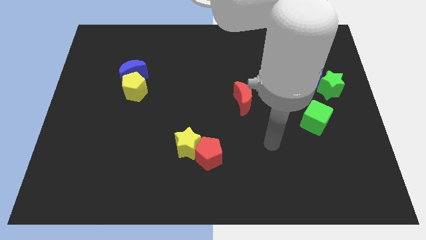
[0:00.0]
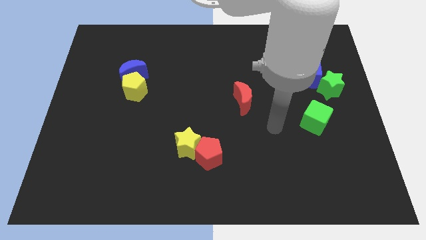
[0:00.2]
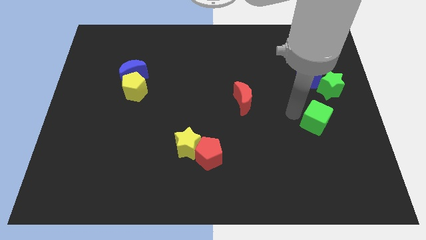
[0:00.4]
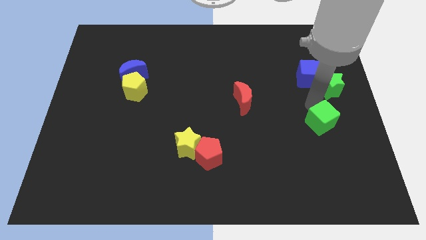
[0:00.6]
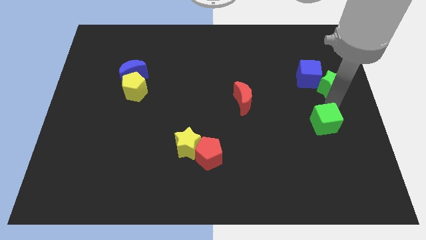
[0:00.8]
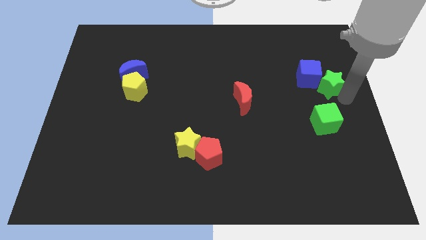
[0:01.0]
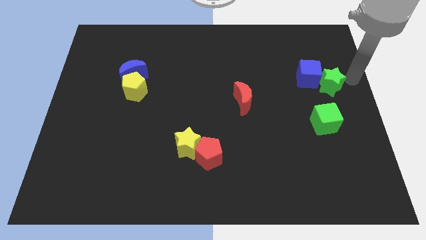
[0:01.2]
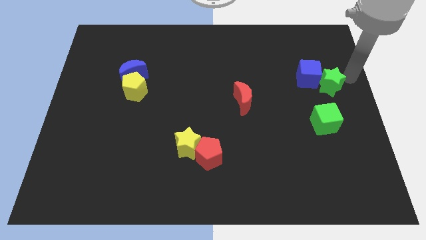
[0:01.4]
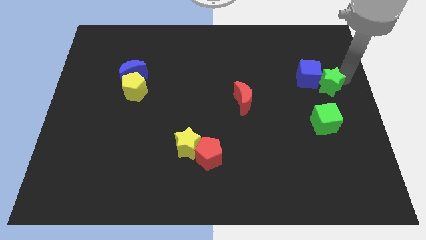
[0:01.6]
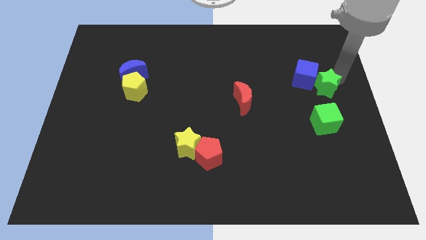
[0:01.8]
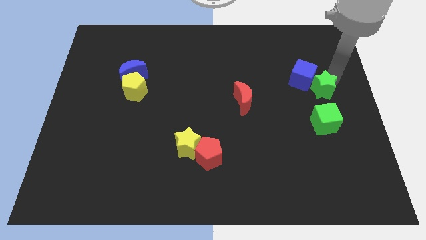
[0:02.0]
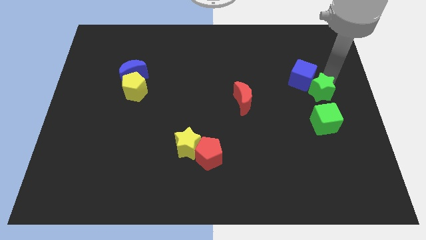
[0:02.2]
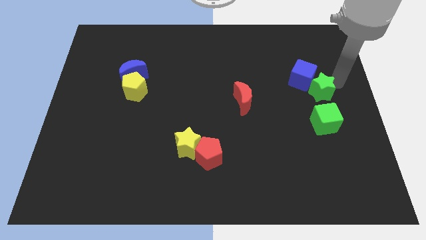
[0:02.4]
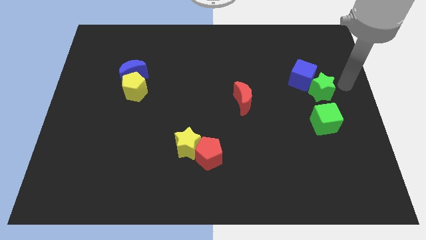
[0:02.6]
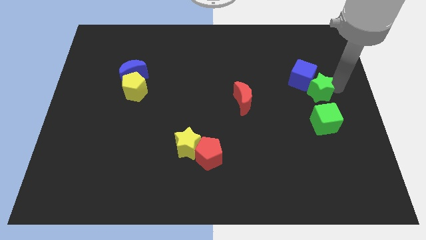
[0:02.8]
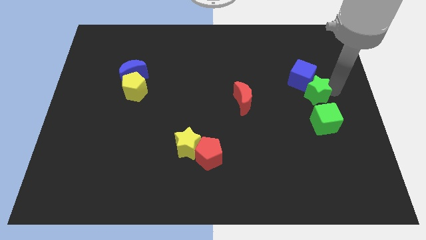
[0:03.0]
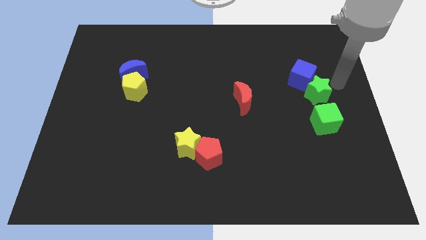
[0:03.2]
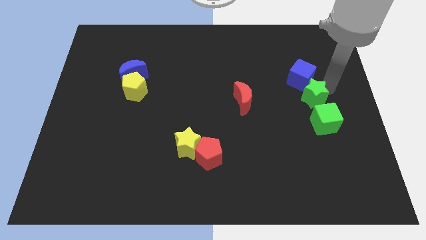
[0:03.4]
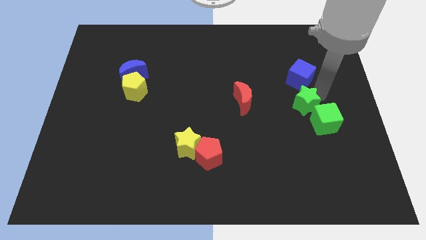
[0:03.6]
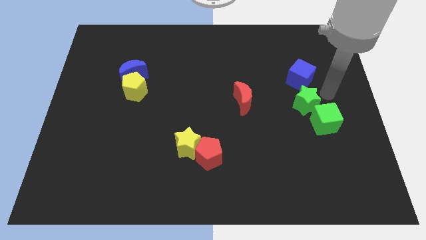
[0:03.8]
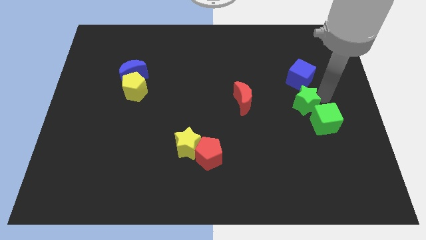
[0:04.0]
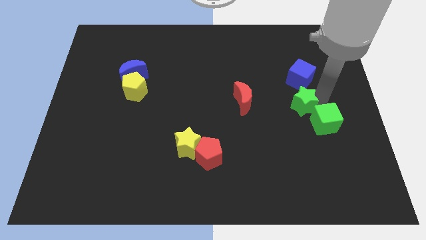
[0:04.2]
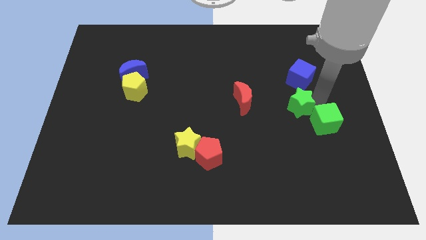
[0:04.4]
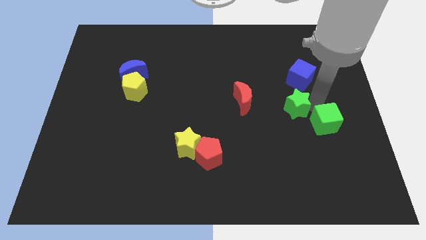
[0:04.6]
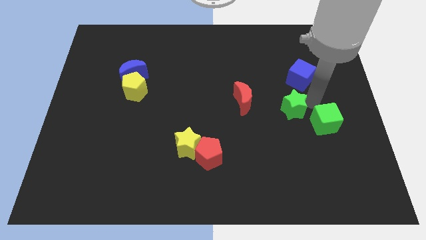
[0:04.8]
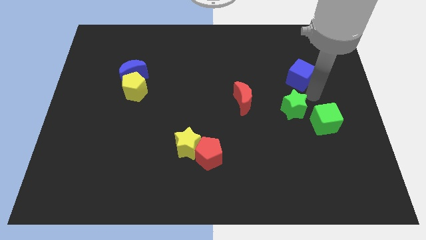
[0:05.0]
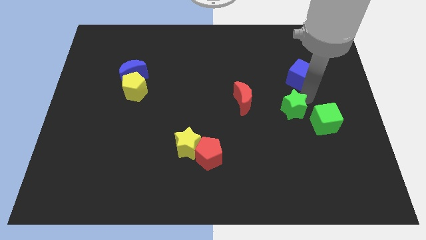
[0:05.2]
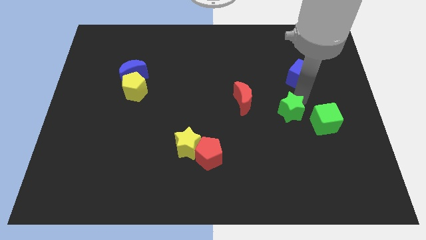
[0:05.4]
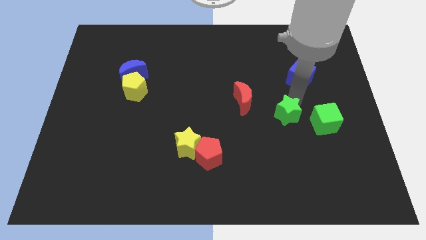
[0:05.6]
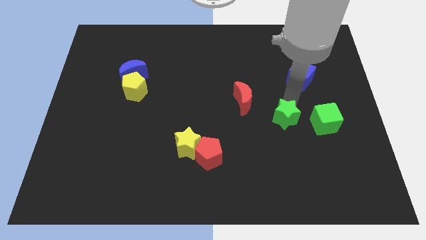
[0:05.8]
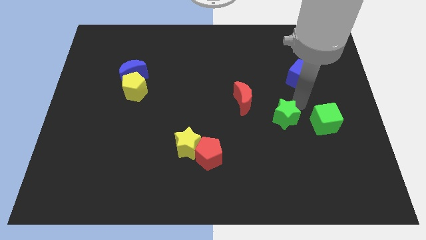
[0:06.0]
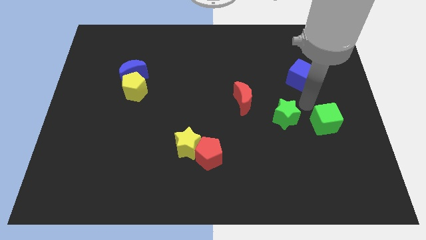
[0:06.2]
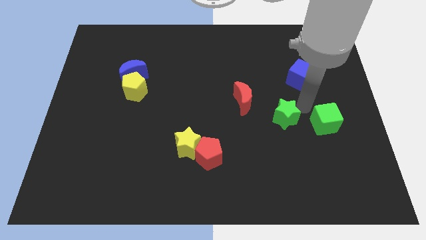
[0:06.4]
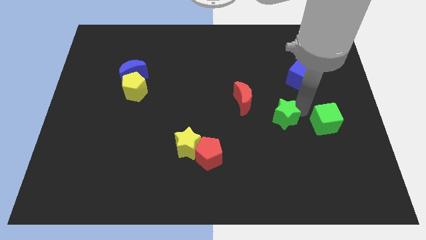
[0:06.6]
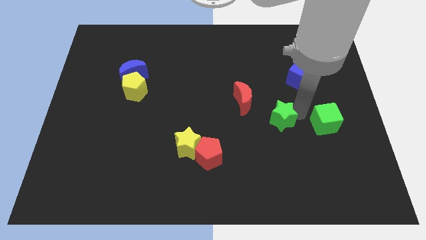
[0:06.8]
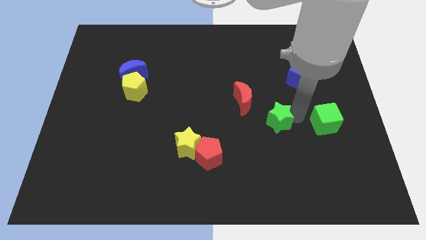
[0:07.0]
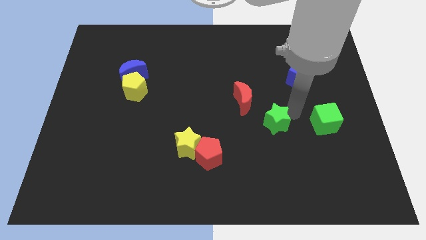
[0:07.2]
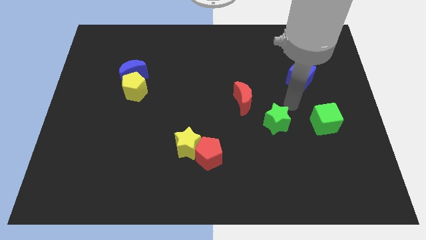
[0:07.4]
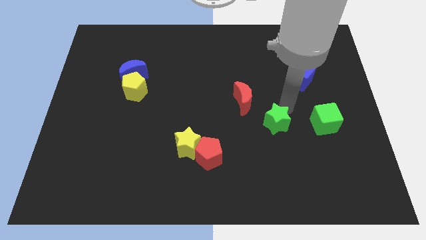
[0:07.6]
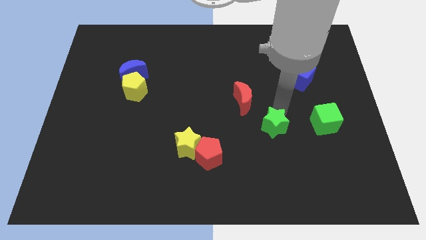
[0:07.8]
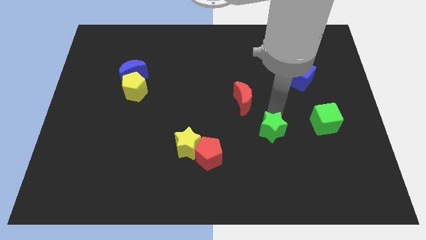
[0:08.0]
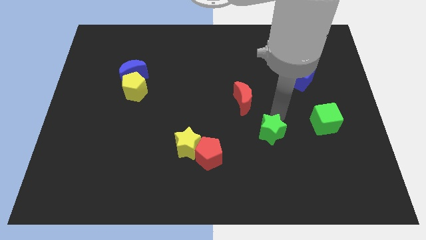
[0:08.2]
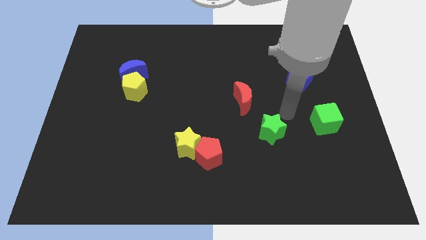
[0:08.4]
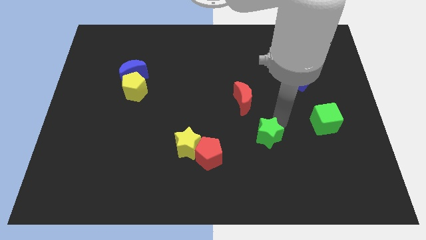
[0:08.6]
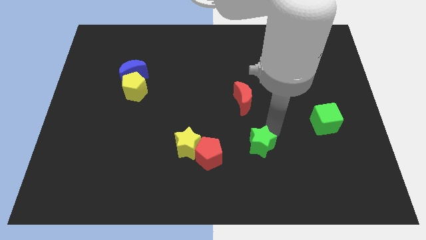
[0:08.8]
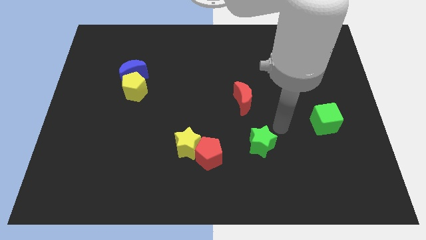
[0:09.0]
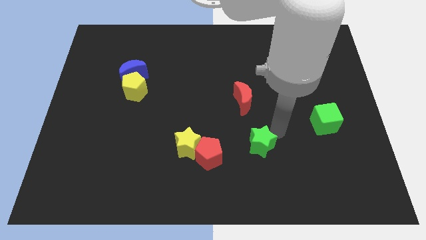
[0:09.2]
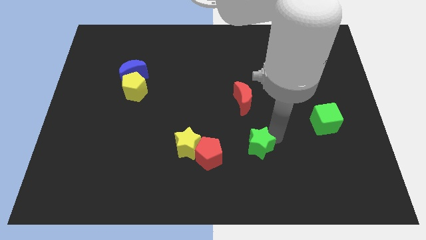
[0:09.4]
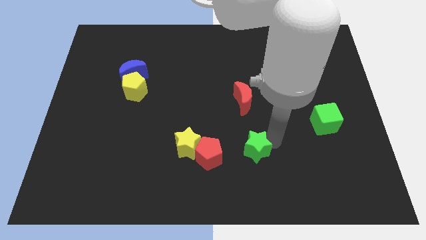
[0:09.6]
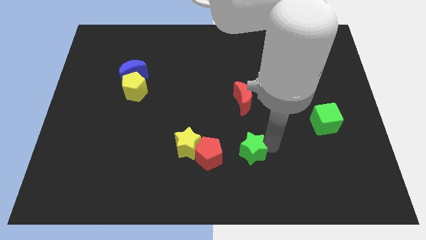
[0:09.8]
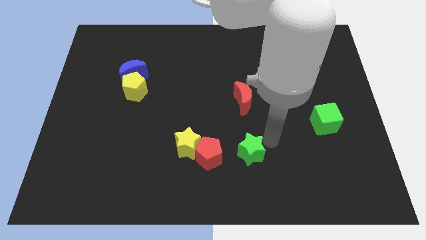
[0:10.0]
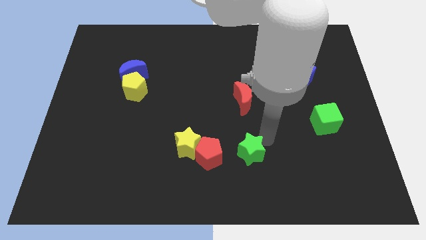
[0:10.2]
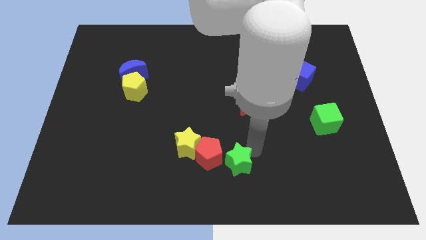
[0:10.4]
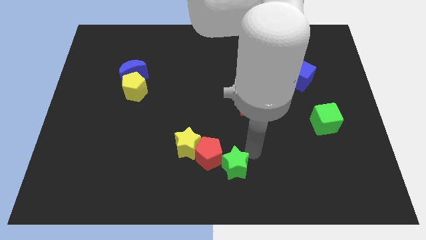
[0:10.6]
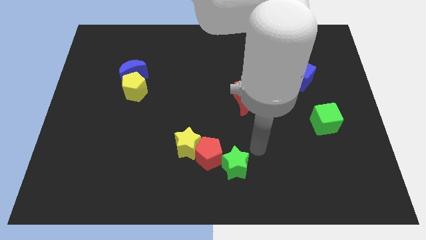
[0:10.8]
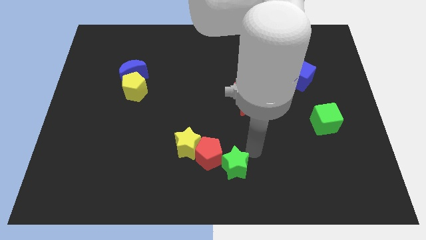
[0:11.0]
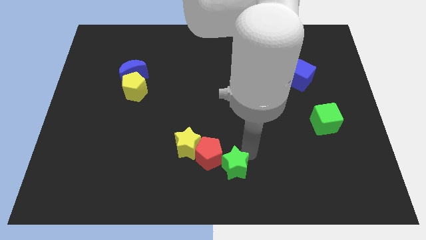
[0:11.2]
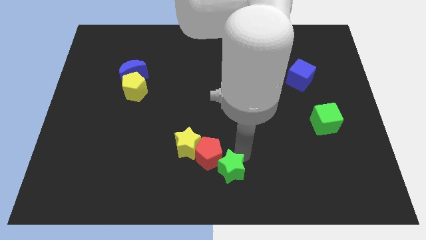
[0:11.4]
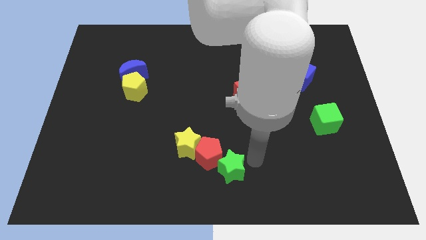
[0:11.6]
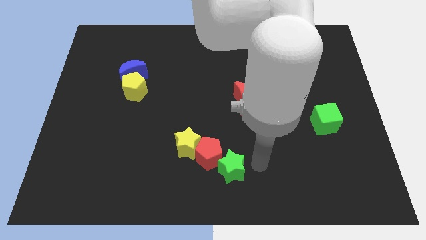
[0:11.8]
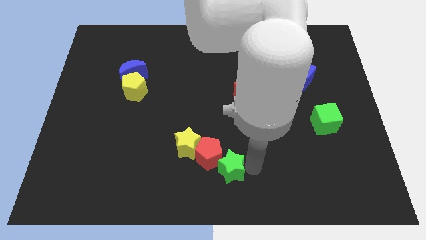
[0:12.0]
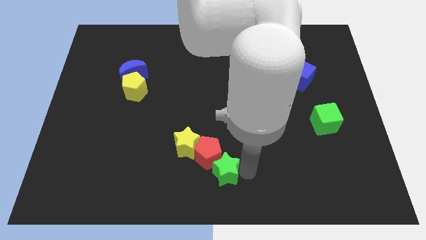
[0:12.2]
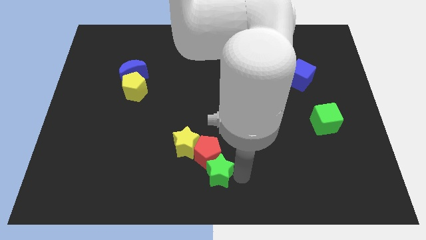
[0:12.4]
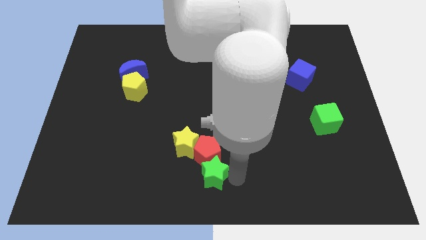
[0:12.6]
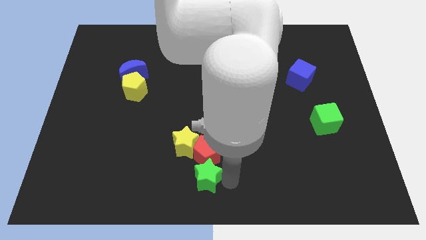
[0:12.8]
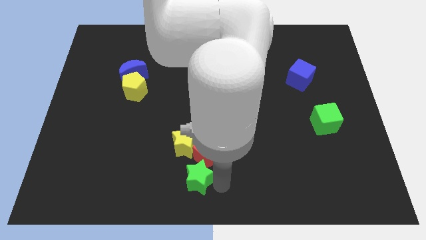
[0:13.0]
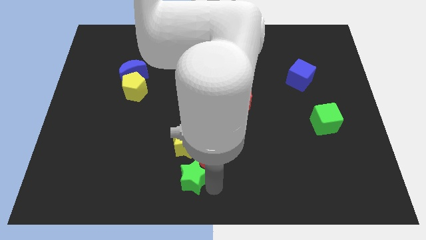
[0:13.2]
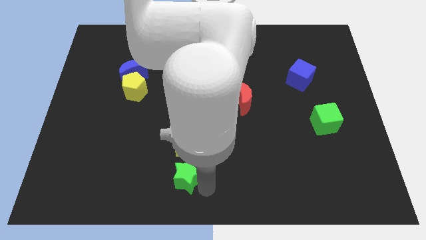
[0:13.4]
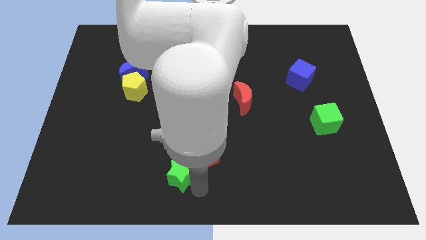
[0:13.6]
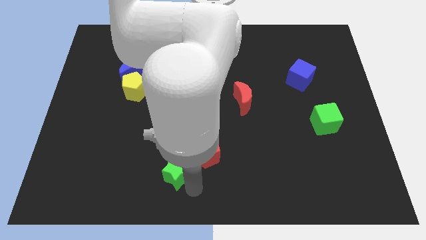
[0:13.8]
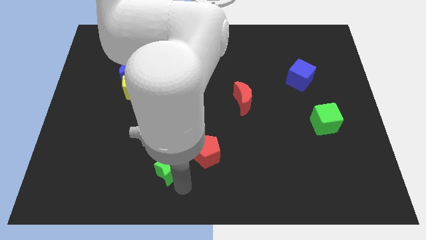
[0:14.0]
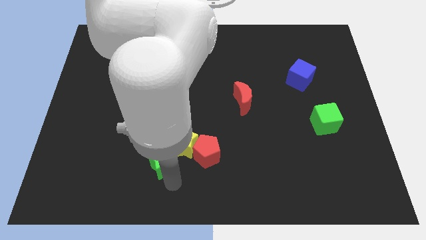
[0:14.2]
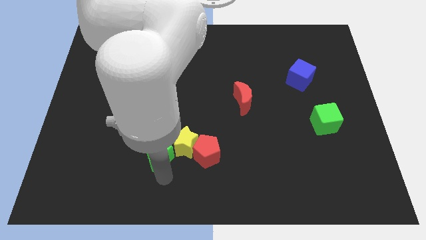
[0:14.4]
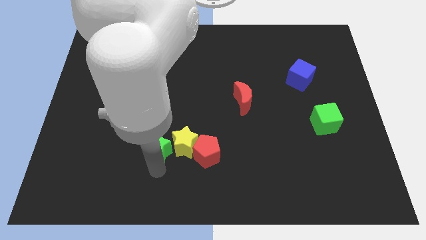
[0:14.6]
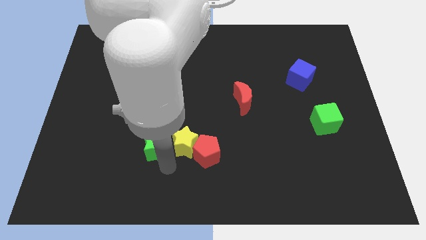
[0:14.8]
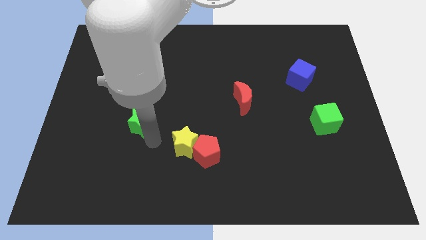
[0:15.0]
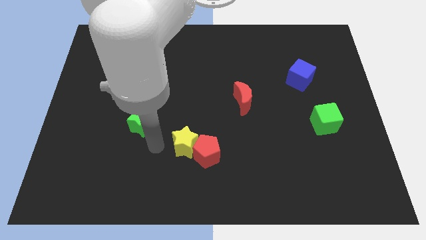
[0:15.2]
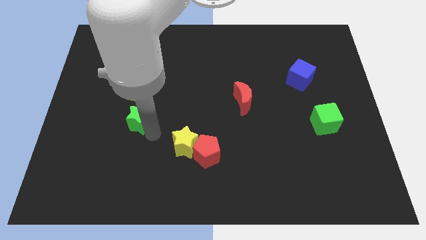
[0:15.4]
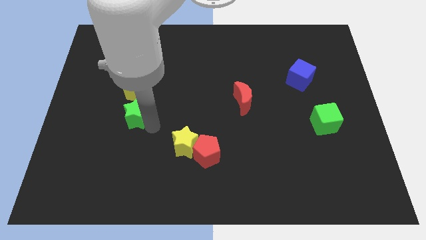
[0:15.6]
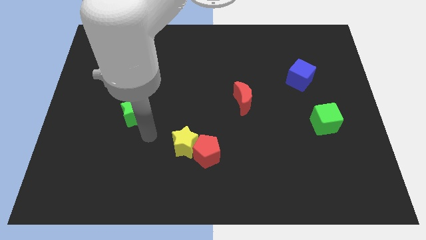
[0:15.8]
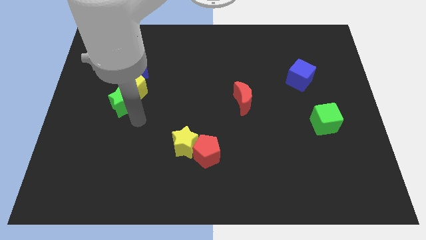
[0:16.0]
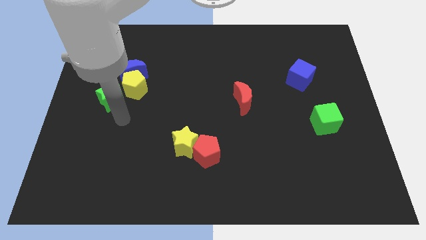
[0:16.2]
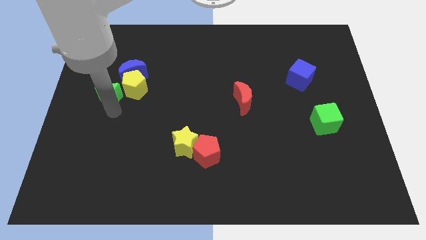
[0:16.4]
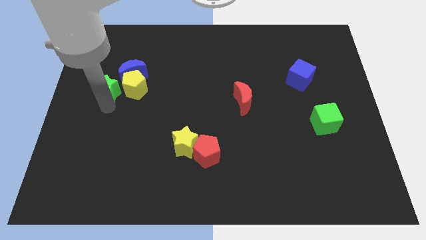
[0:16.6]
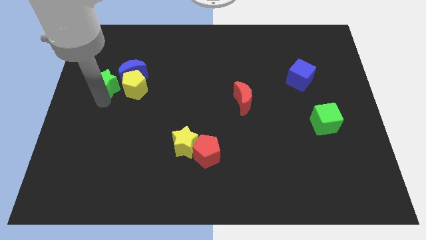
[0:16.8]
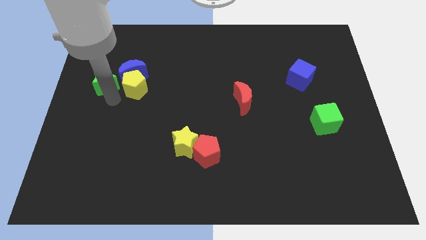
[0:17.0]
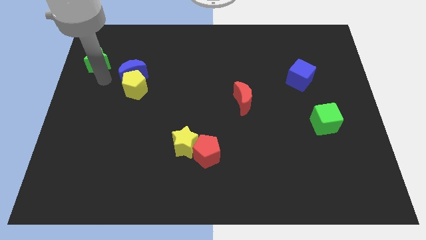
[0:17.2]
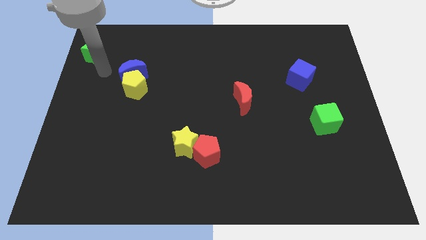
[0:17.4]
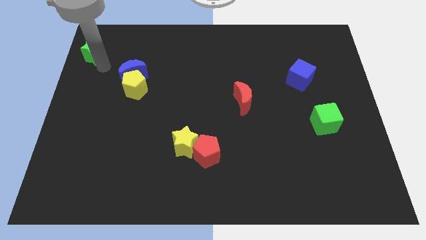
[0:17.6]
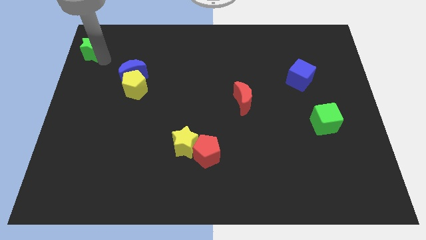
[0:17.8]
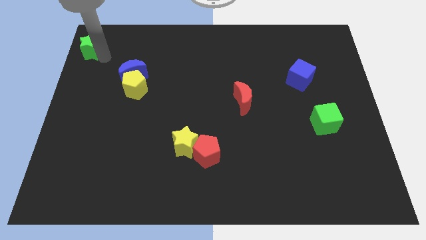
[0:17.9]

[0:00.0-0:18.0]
put the green star to the top left
